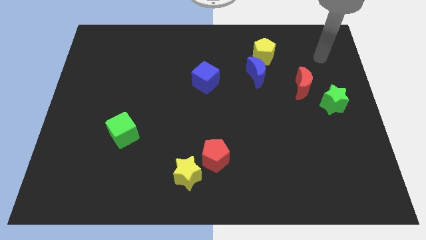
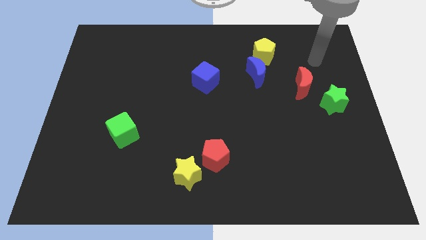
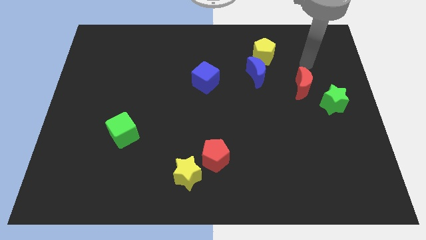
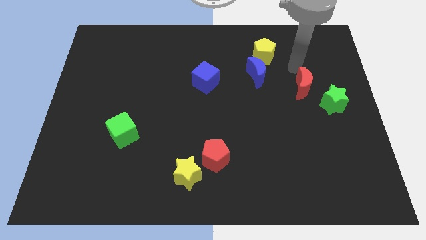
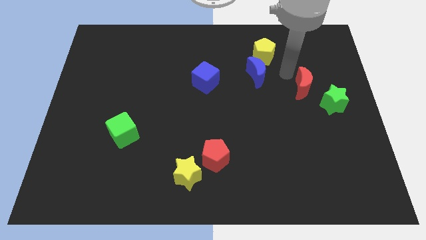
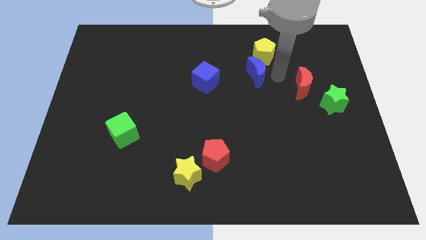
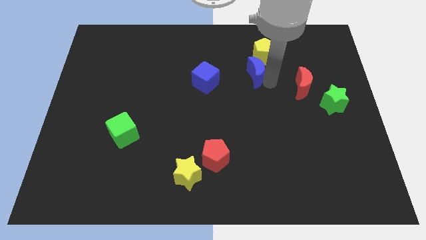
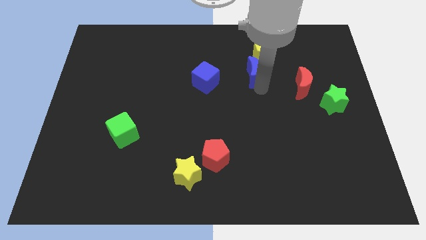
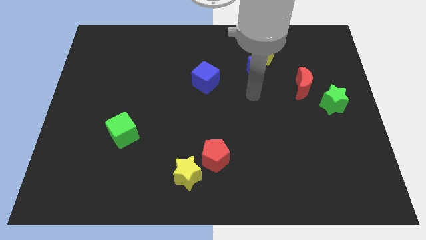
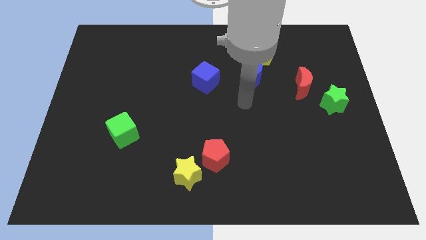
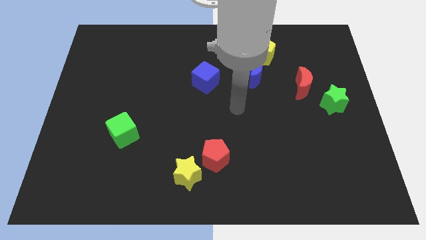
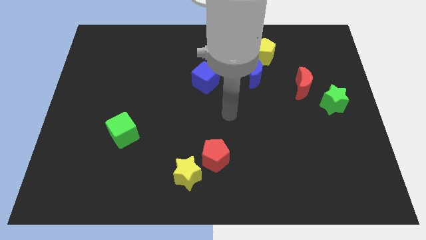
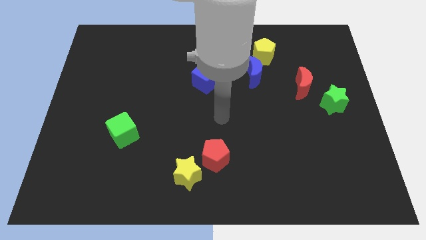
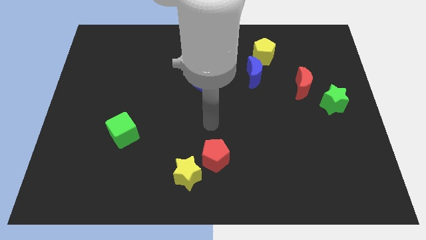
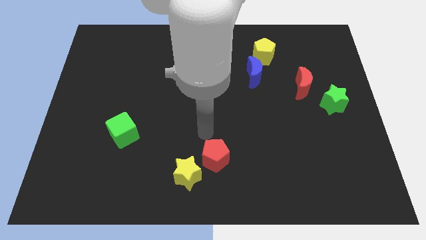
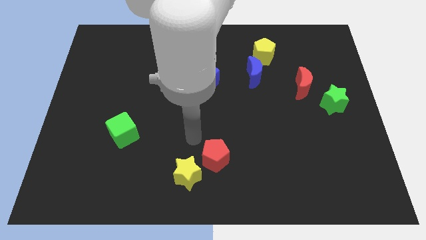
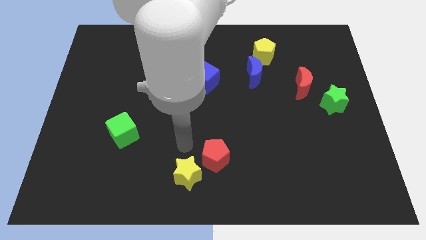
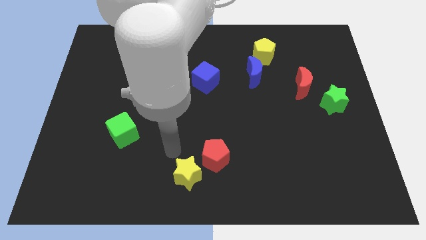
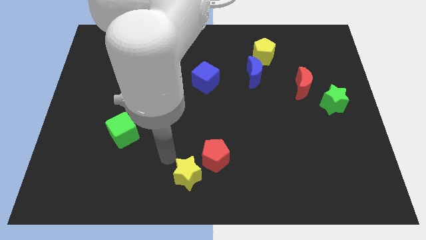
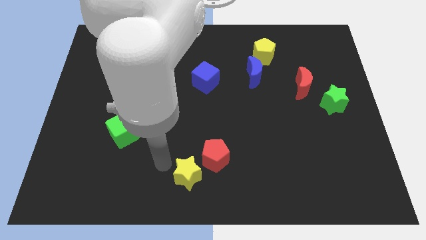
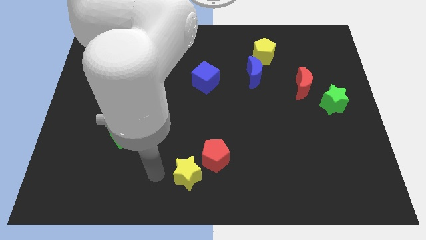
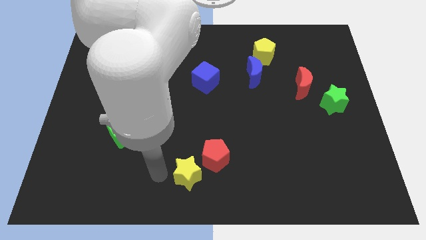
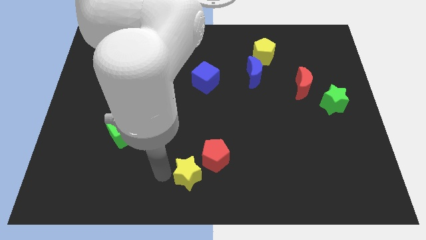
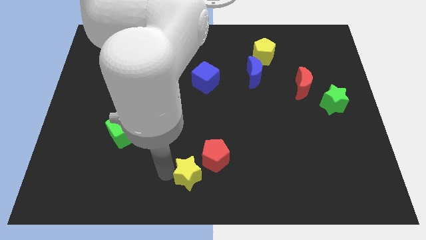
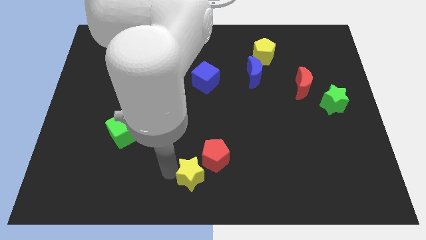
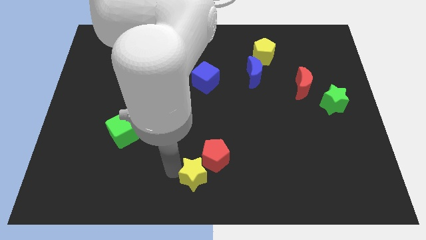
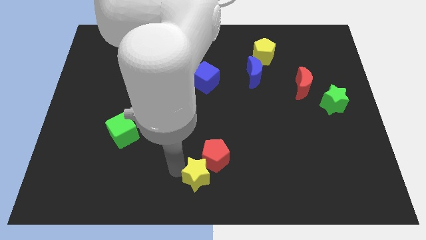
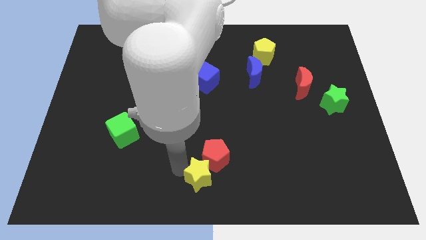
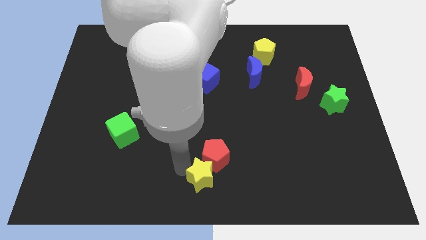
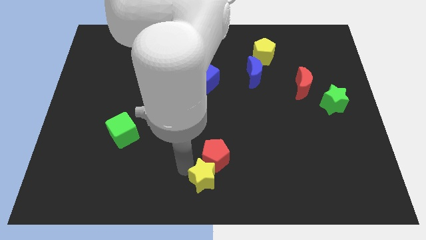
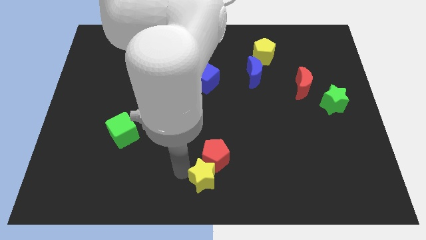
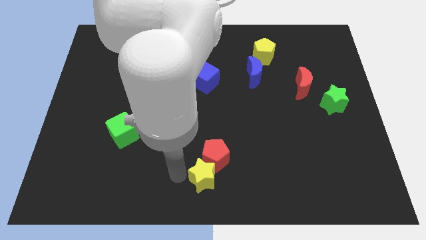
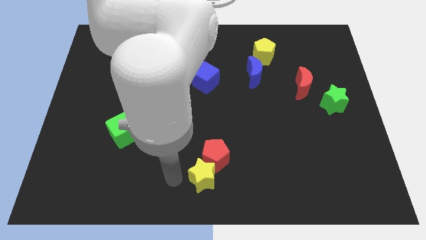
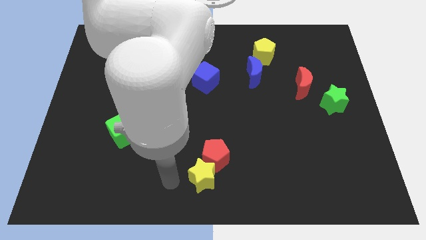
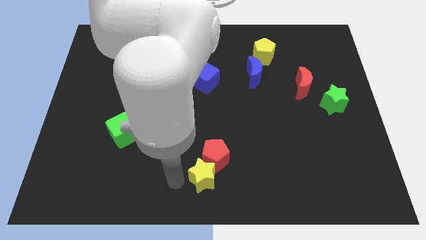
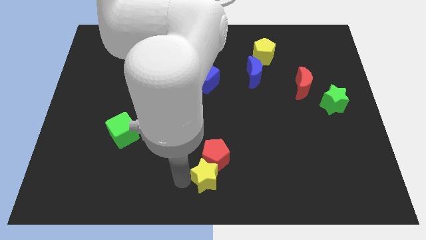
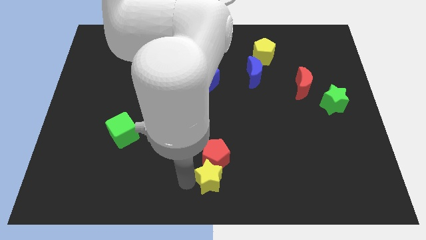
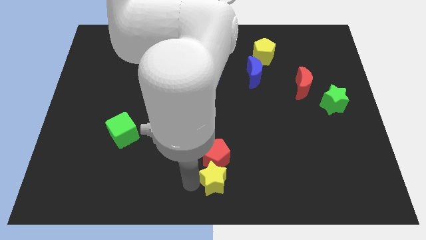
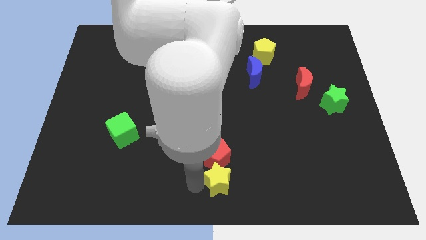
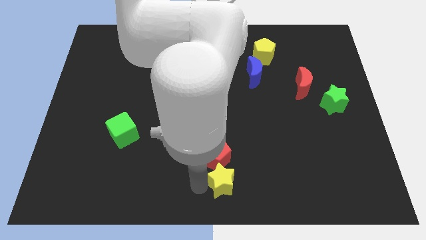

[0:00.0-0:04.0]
slightly slide the yellow star to the right

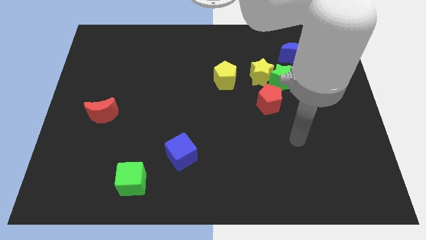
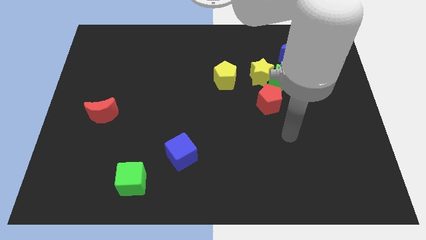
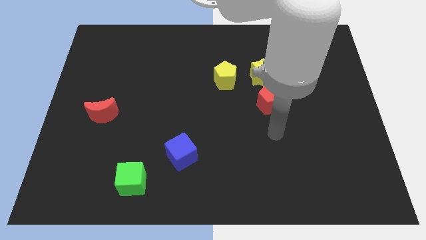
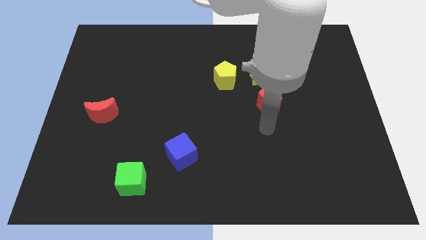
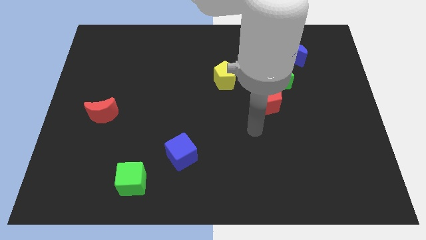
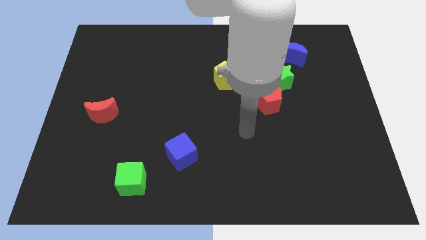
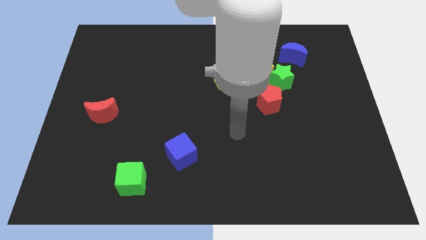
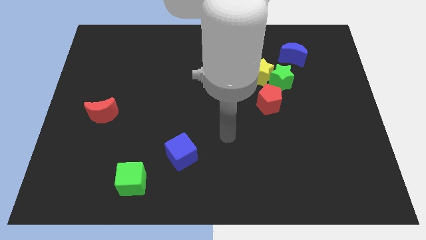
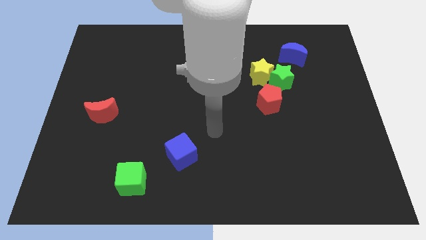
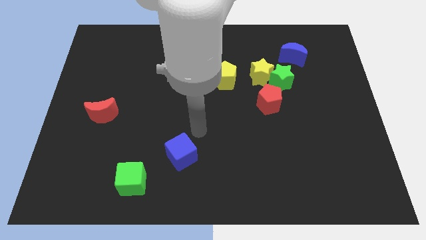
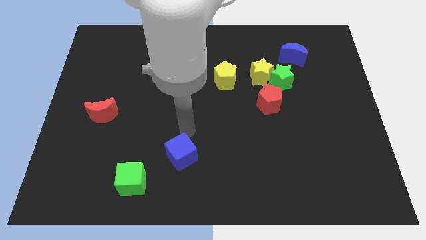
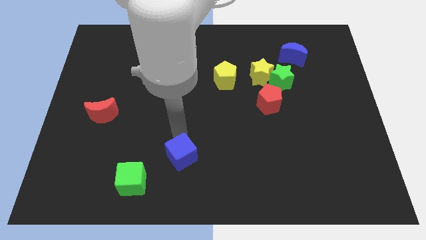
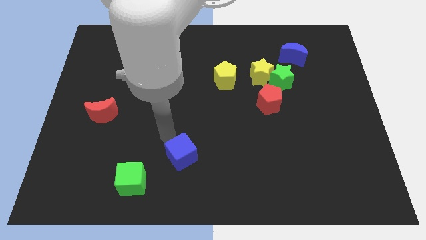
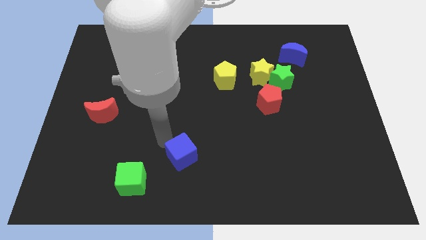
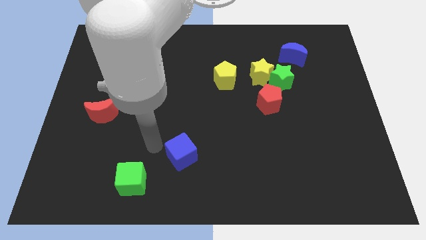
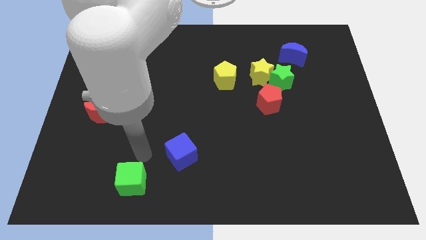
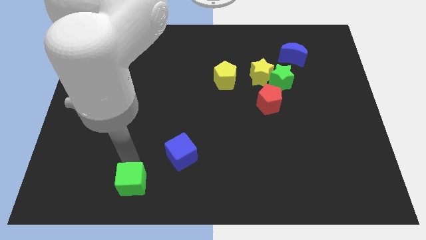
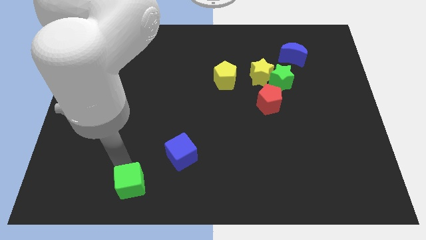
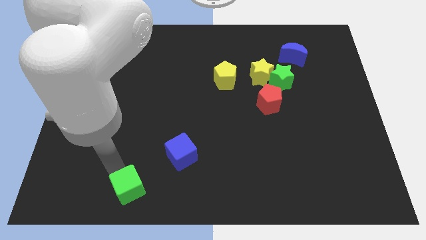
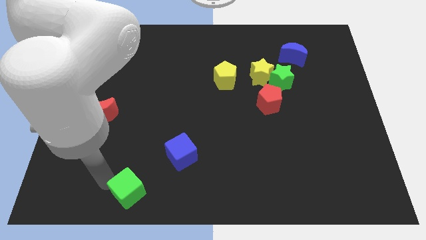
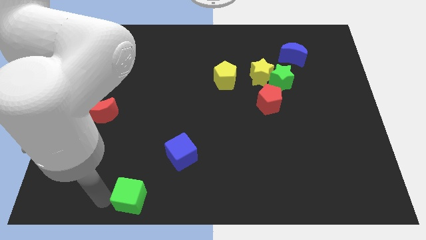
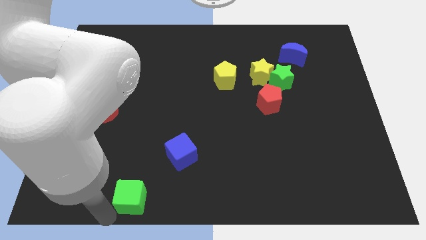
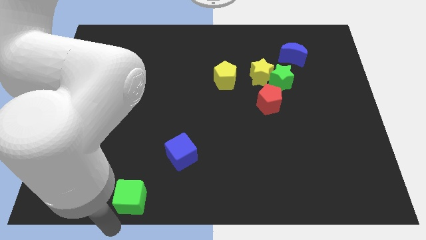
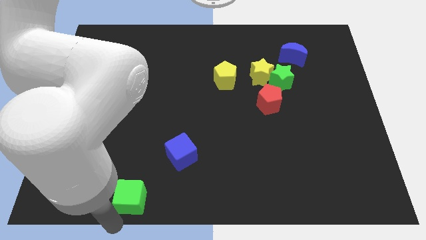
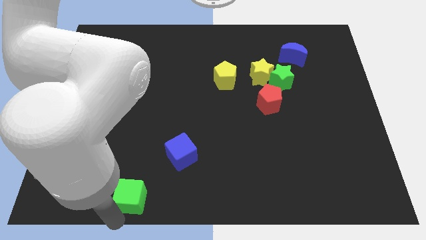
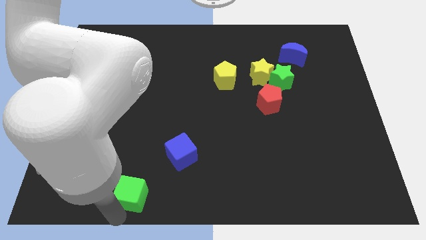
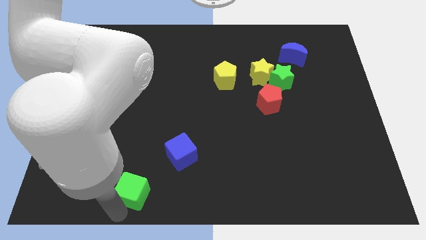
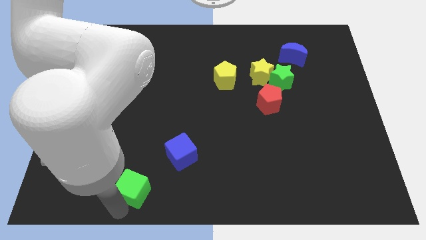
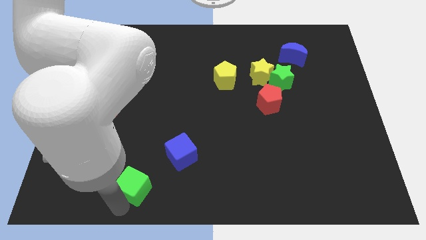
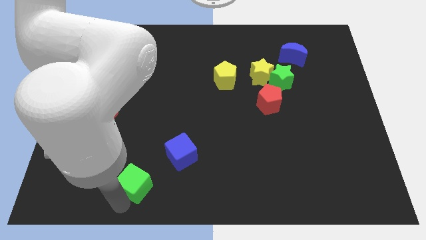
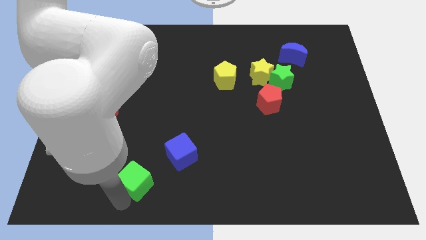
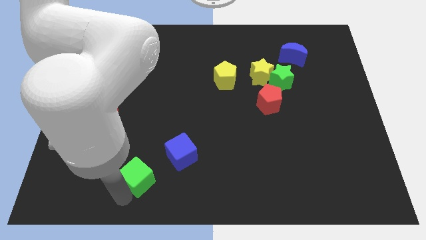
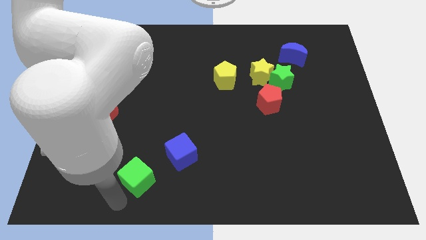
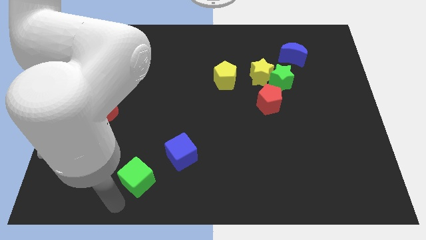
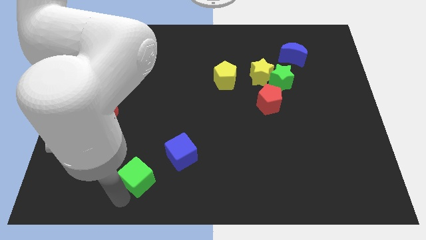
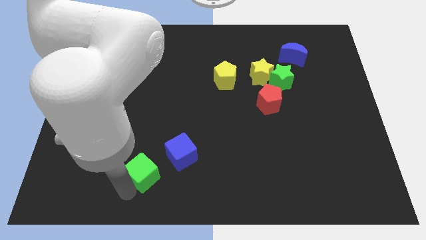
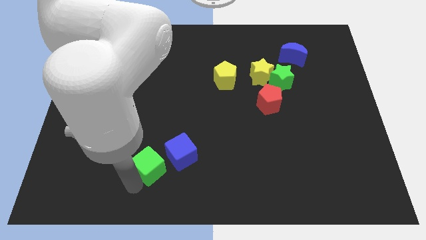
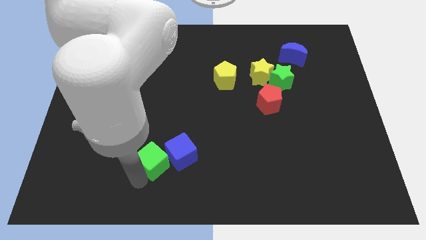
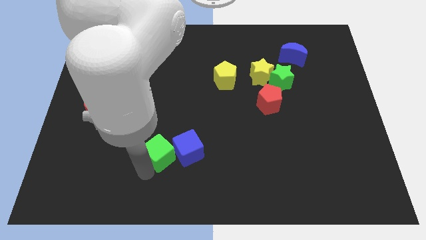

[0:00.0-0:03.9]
move the green cube somewhat up and to the right

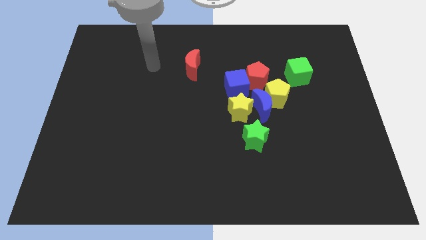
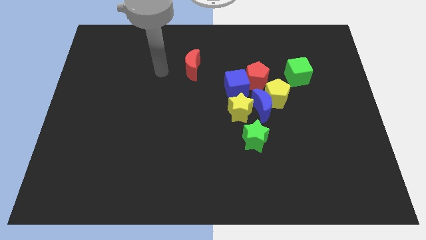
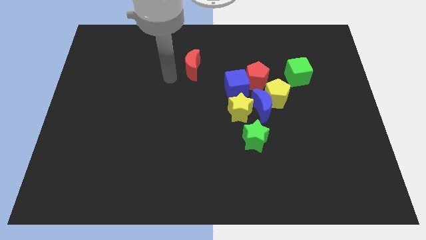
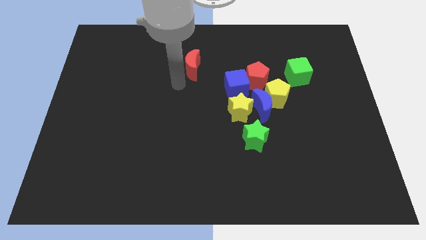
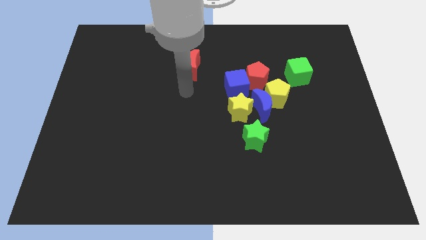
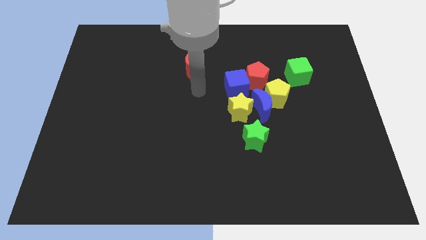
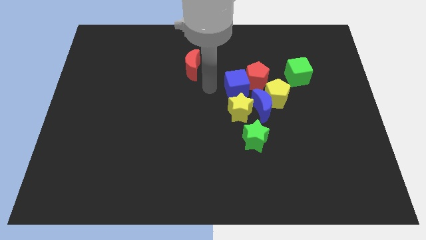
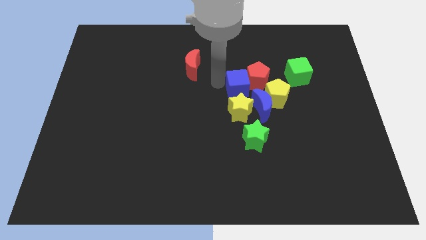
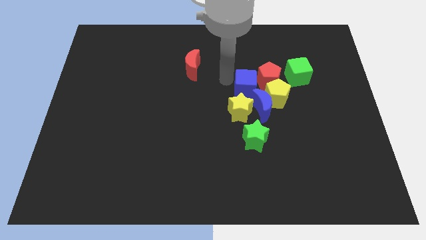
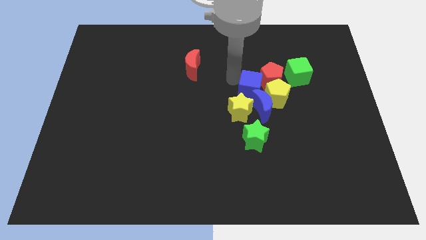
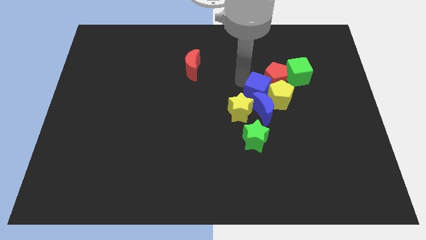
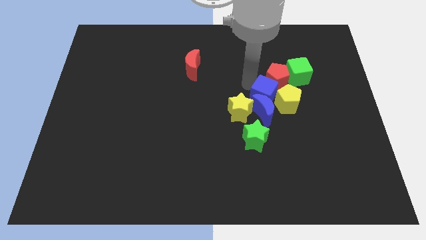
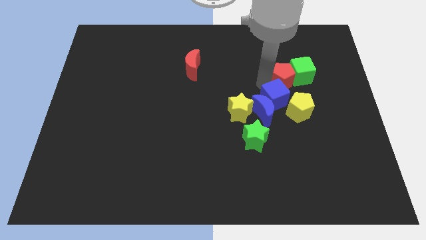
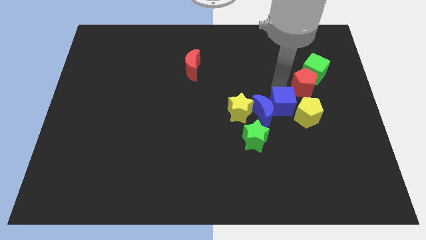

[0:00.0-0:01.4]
slightly move the yellow pentagon diagonally downwards and right
